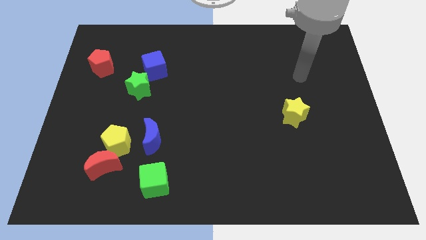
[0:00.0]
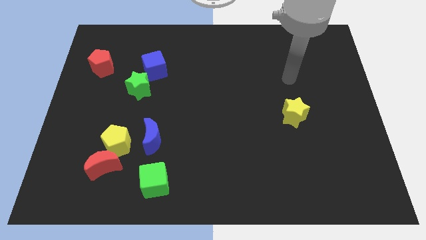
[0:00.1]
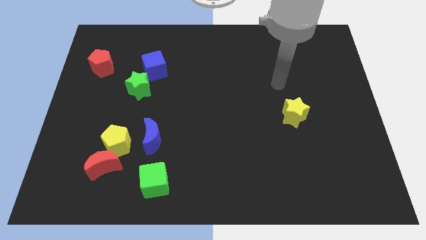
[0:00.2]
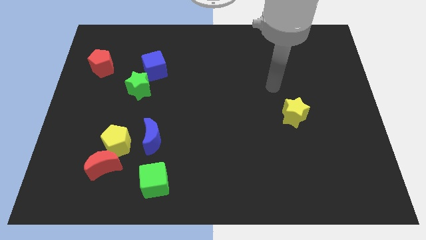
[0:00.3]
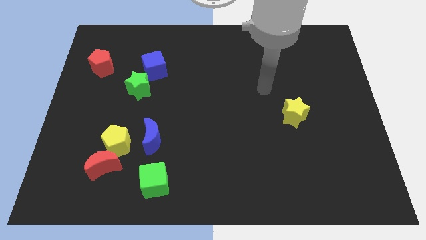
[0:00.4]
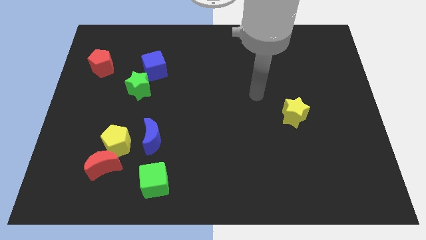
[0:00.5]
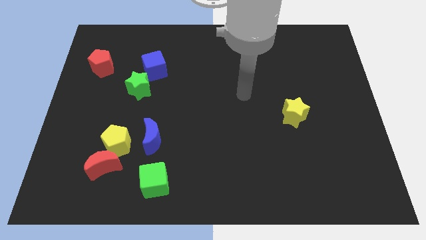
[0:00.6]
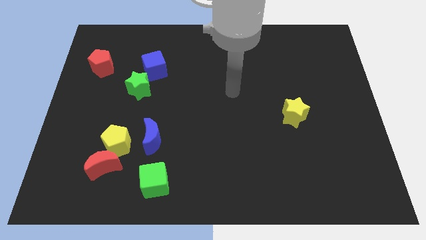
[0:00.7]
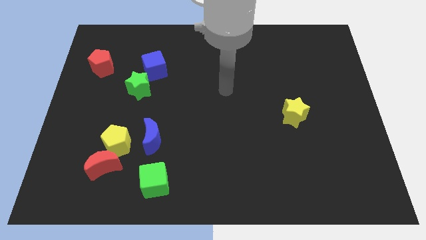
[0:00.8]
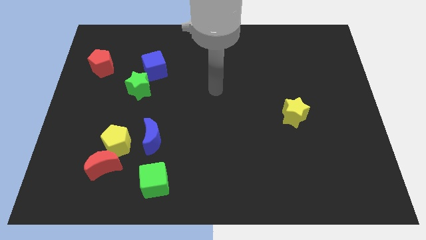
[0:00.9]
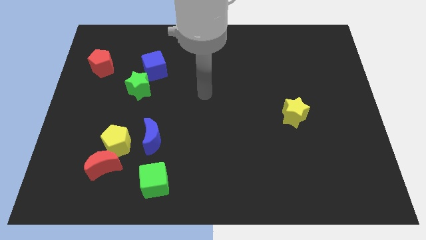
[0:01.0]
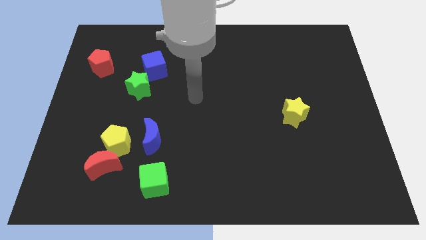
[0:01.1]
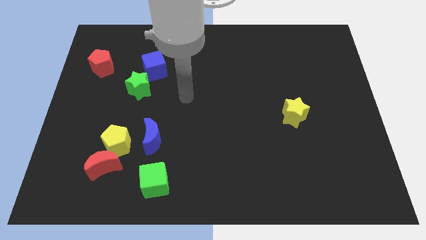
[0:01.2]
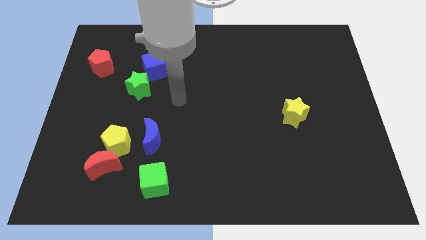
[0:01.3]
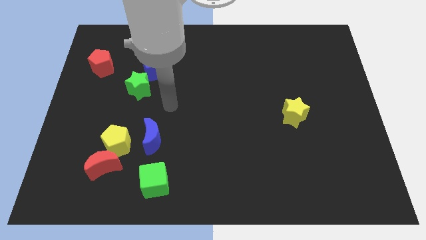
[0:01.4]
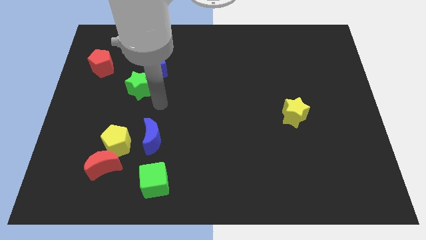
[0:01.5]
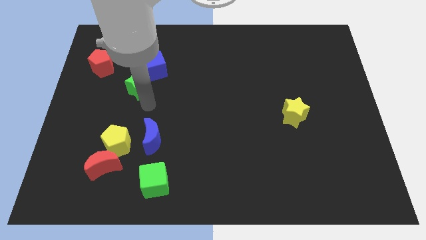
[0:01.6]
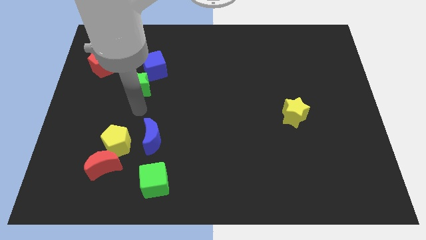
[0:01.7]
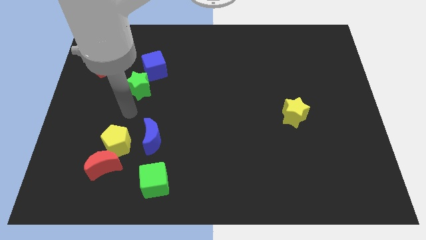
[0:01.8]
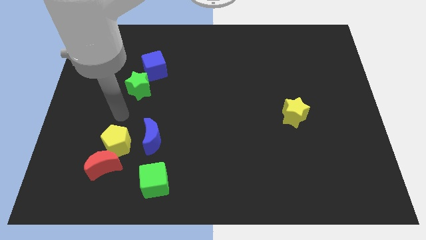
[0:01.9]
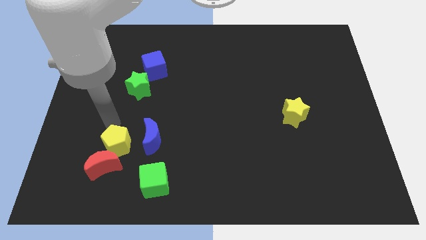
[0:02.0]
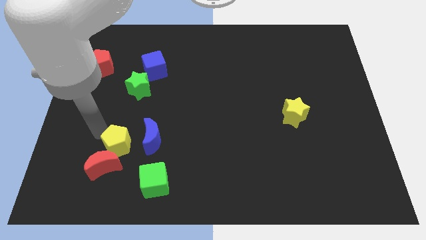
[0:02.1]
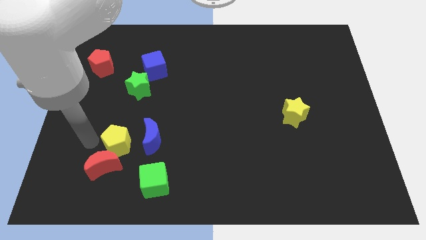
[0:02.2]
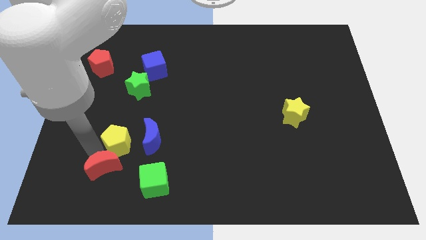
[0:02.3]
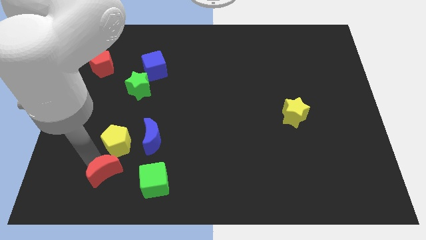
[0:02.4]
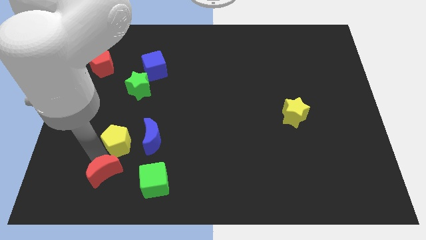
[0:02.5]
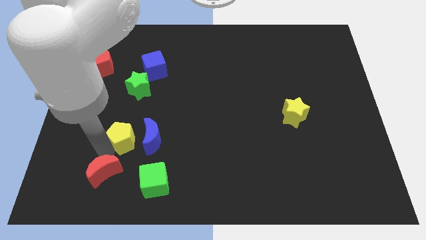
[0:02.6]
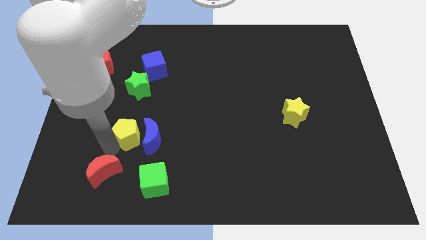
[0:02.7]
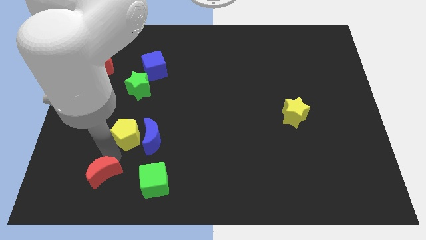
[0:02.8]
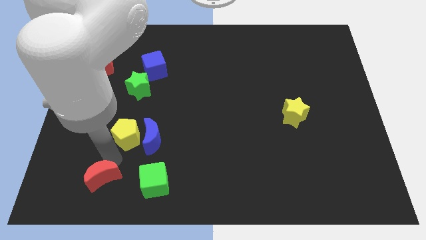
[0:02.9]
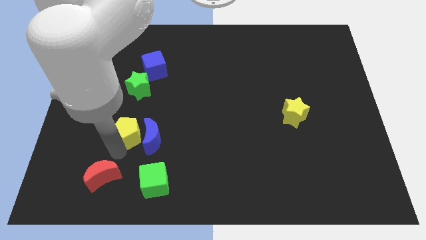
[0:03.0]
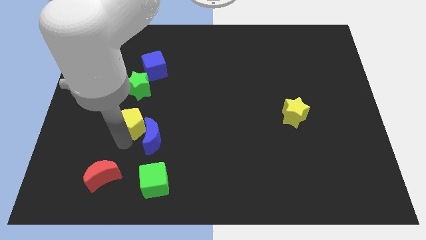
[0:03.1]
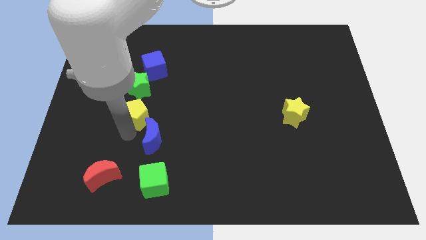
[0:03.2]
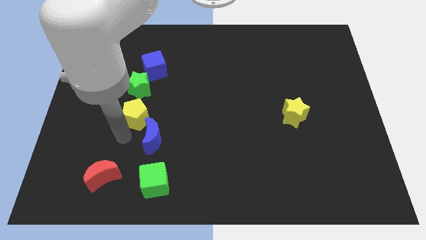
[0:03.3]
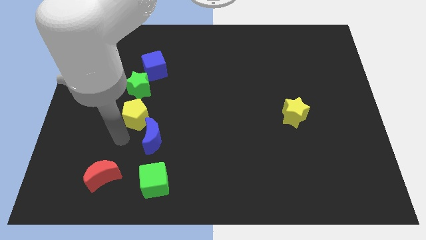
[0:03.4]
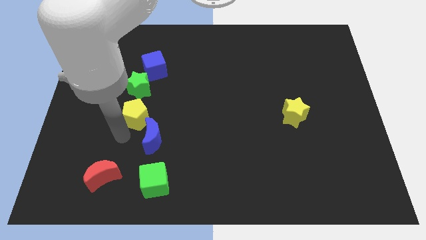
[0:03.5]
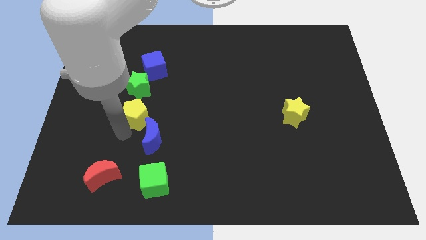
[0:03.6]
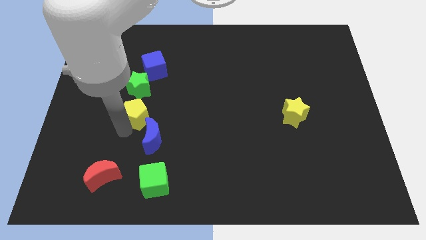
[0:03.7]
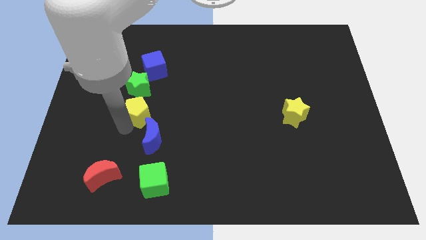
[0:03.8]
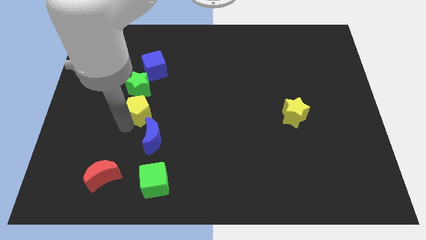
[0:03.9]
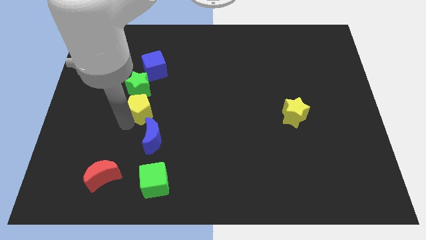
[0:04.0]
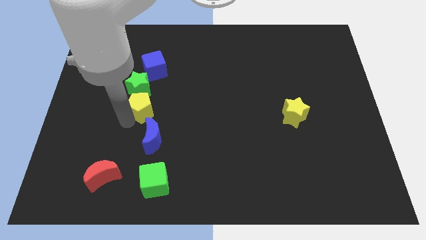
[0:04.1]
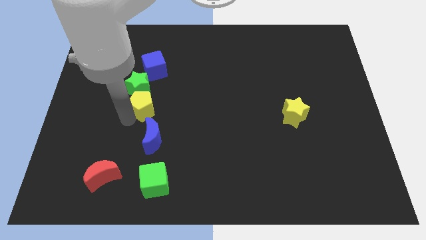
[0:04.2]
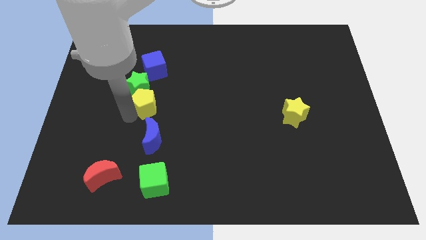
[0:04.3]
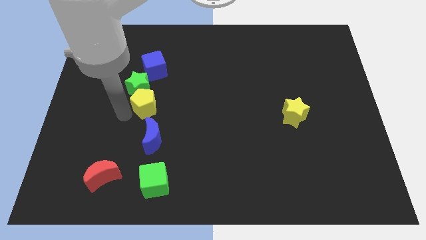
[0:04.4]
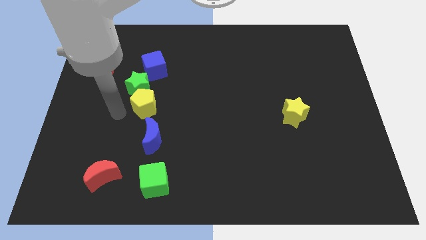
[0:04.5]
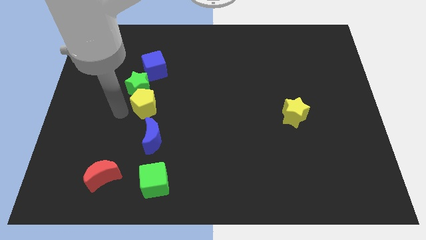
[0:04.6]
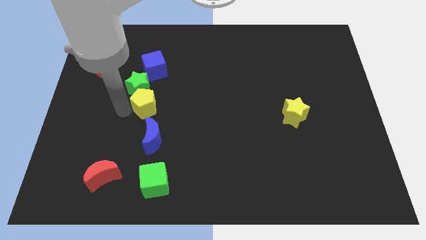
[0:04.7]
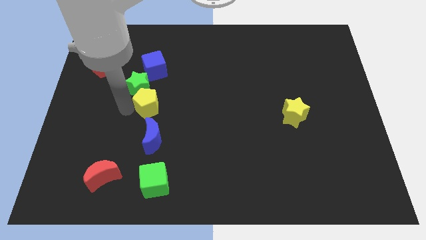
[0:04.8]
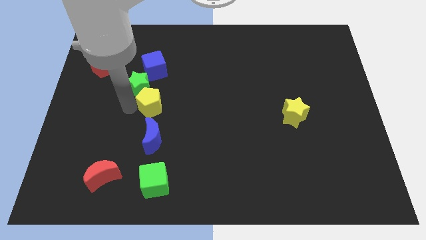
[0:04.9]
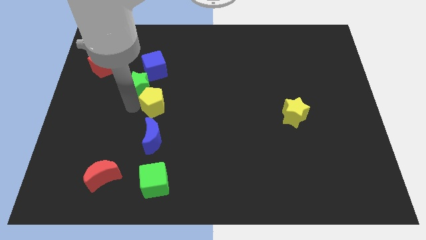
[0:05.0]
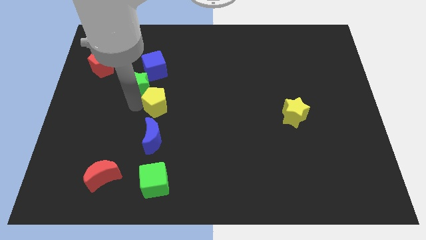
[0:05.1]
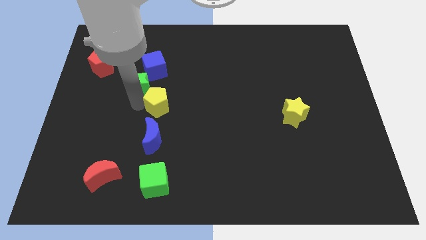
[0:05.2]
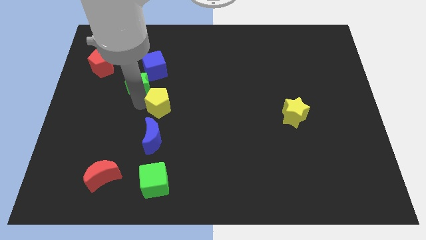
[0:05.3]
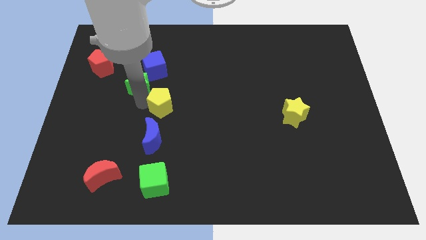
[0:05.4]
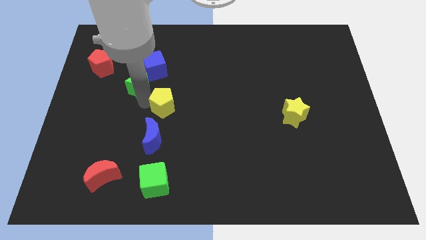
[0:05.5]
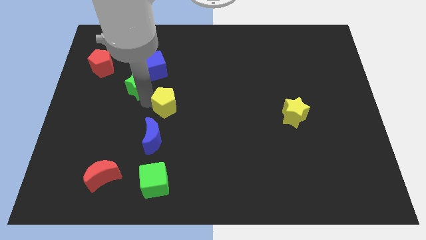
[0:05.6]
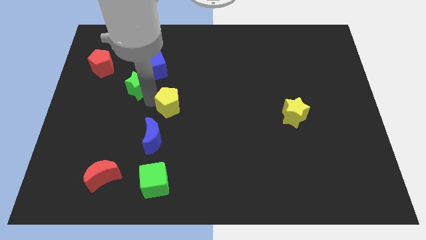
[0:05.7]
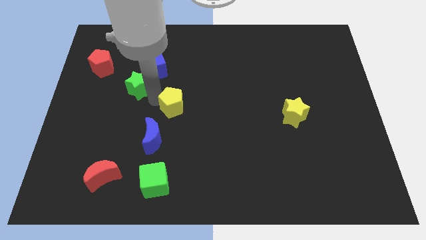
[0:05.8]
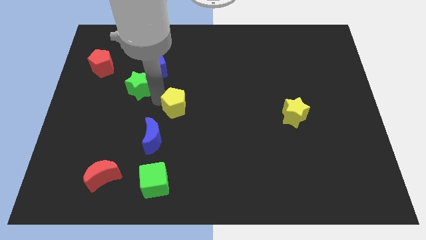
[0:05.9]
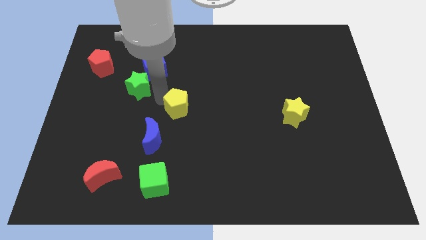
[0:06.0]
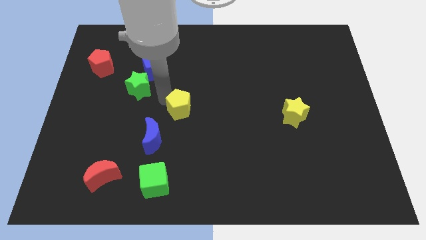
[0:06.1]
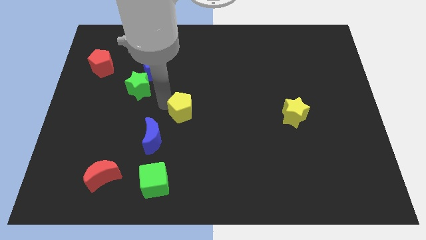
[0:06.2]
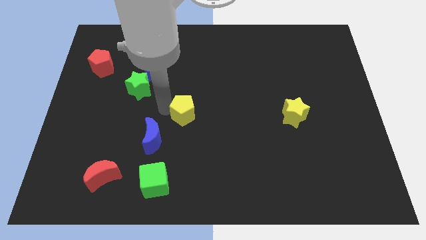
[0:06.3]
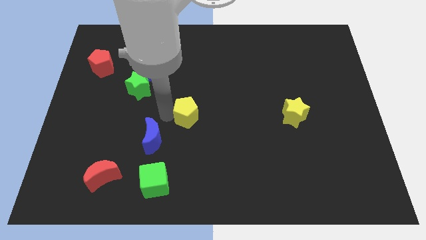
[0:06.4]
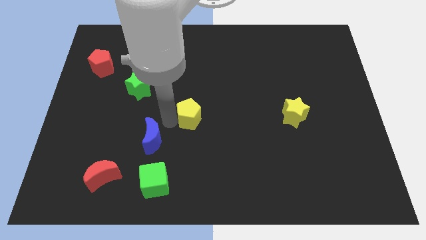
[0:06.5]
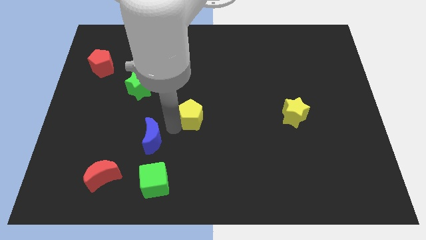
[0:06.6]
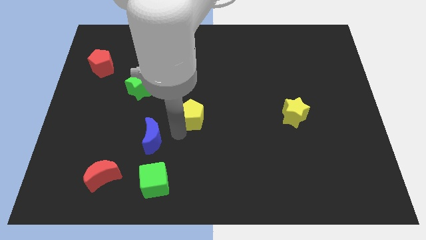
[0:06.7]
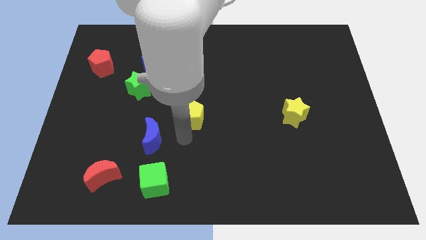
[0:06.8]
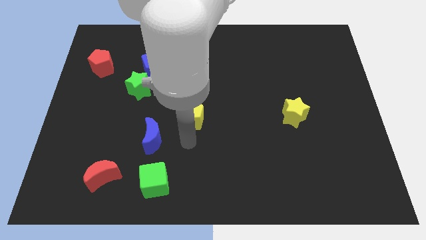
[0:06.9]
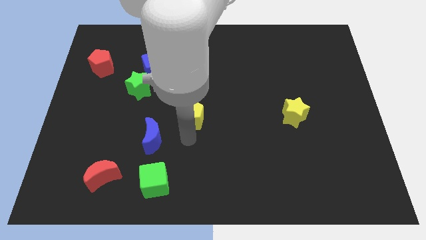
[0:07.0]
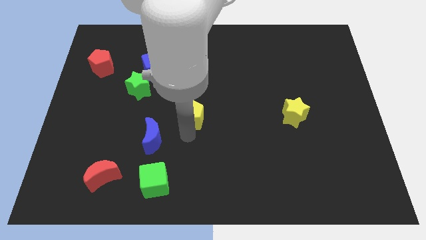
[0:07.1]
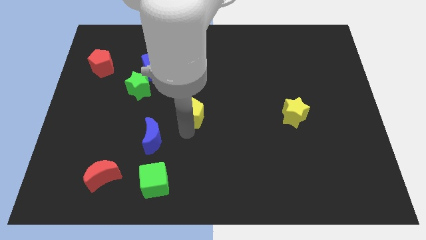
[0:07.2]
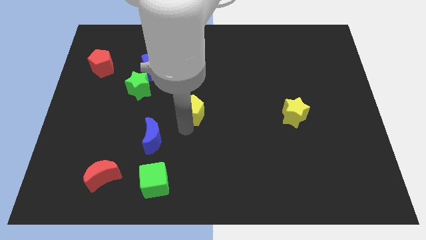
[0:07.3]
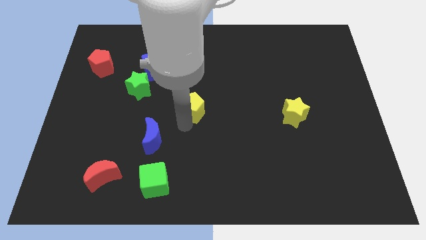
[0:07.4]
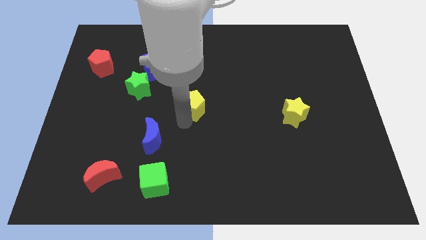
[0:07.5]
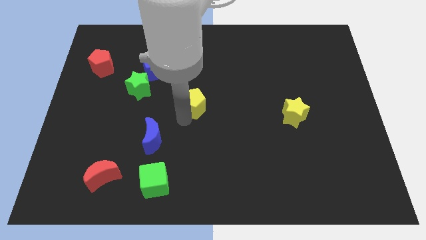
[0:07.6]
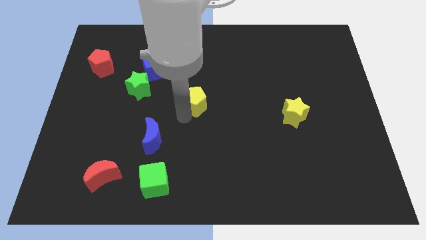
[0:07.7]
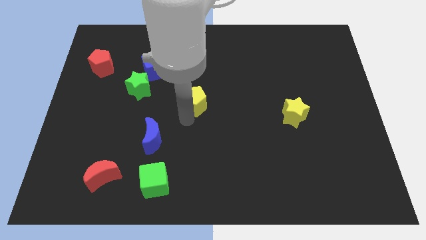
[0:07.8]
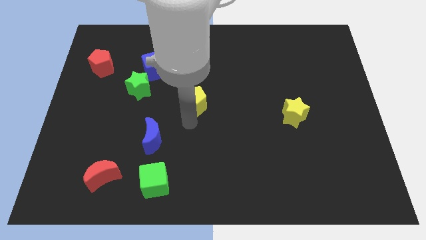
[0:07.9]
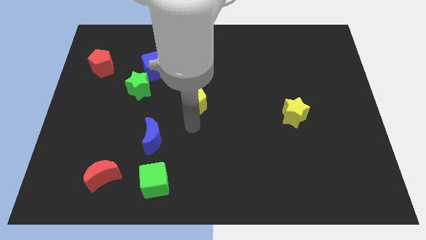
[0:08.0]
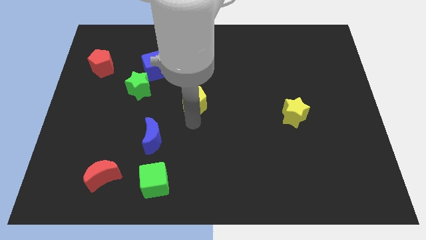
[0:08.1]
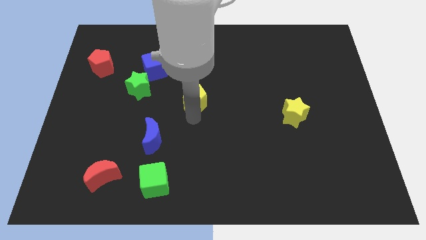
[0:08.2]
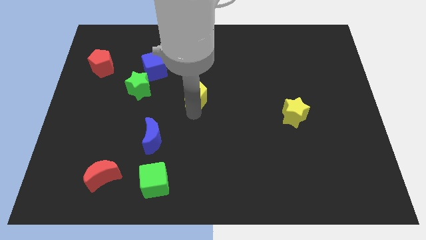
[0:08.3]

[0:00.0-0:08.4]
push the yellow pentagon up and right diagonally
